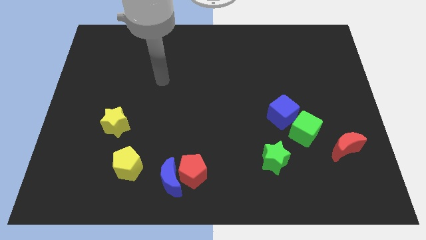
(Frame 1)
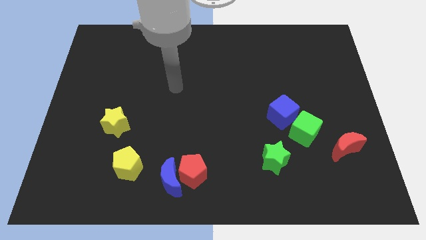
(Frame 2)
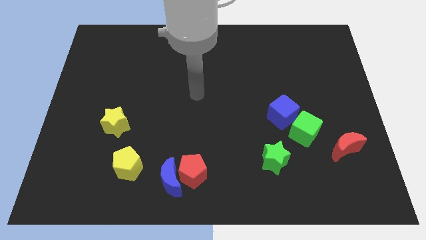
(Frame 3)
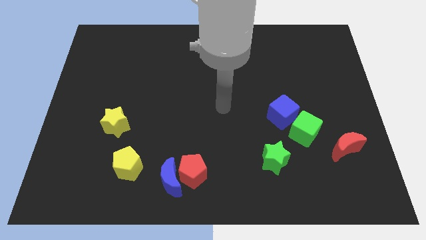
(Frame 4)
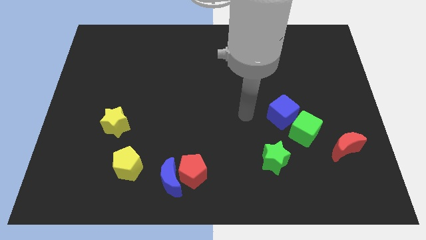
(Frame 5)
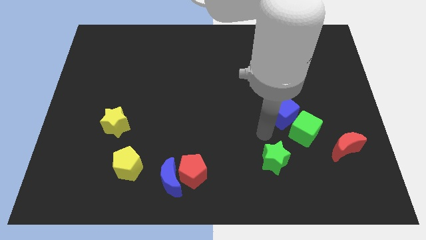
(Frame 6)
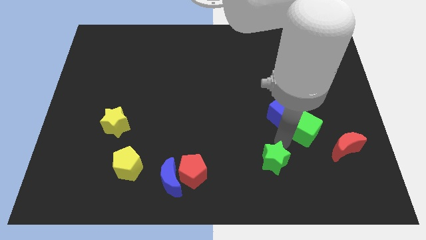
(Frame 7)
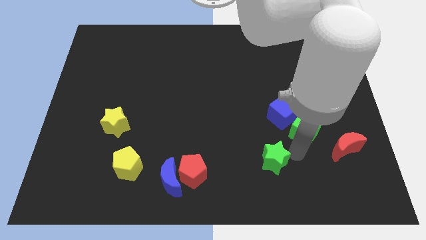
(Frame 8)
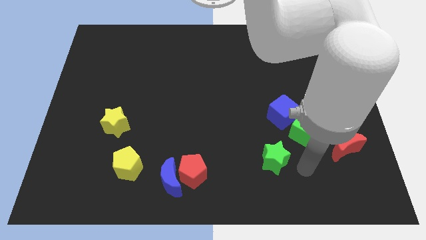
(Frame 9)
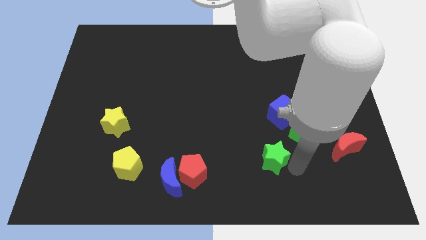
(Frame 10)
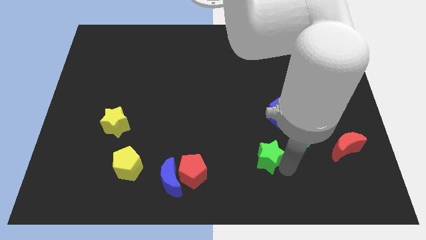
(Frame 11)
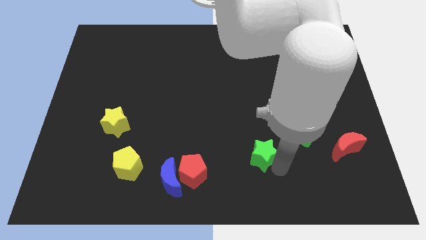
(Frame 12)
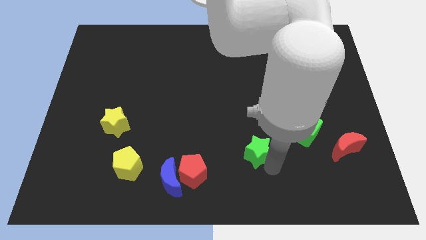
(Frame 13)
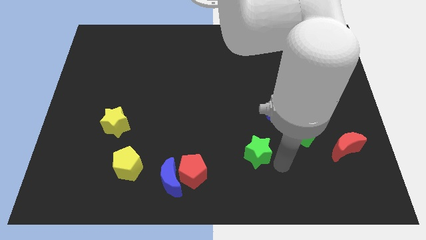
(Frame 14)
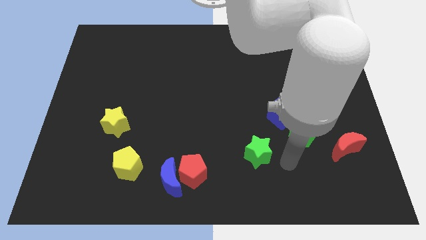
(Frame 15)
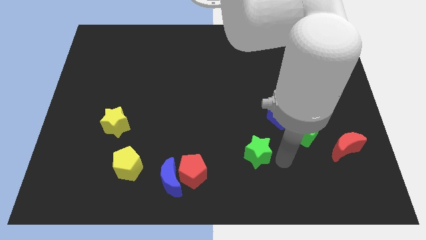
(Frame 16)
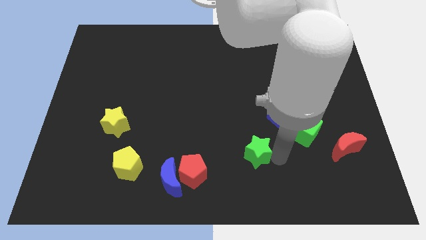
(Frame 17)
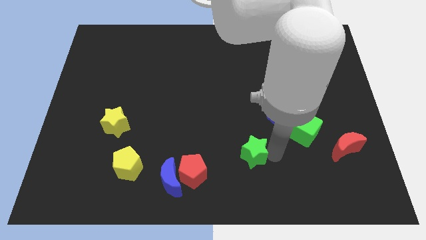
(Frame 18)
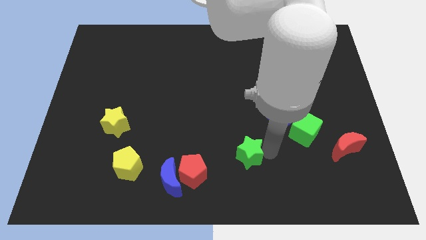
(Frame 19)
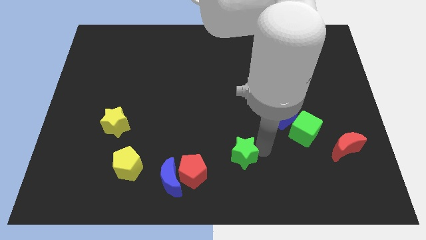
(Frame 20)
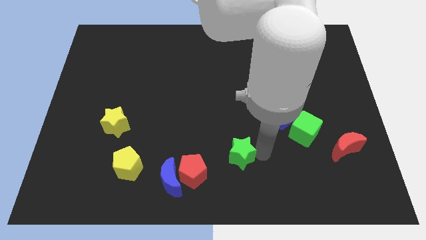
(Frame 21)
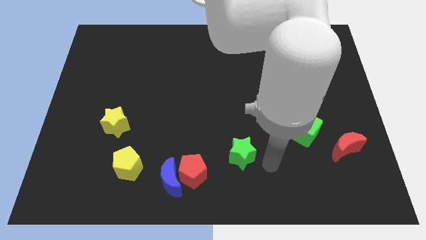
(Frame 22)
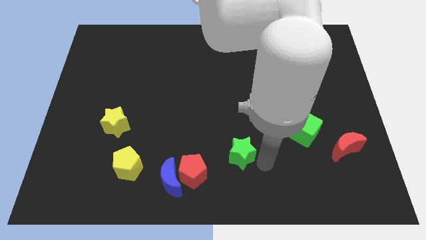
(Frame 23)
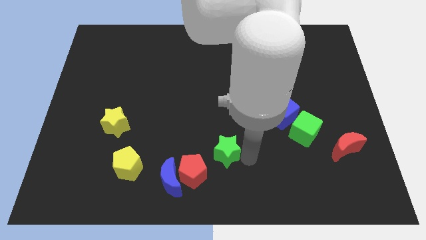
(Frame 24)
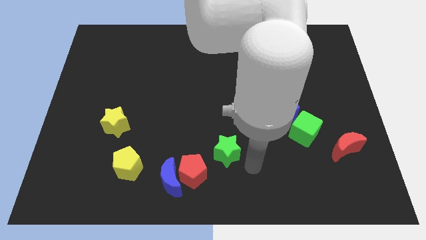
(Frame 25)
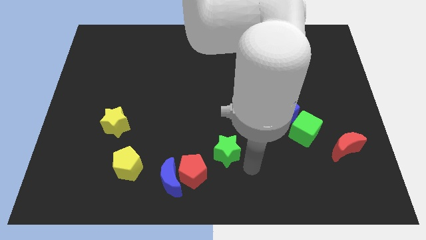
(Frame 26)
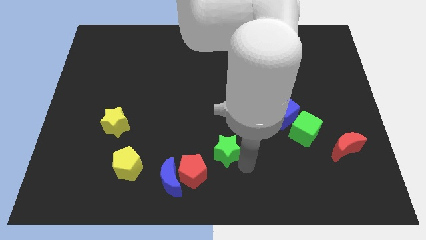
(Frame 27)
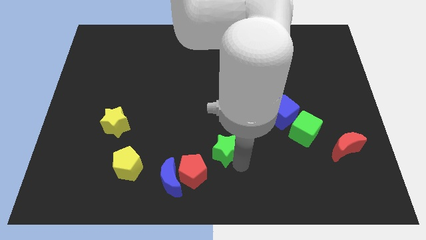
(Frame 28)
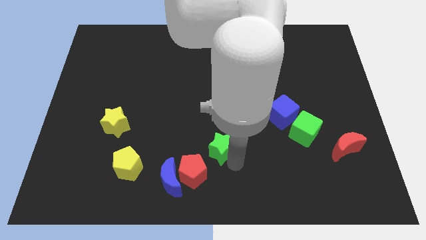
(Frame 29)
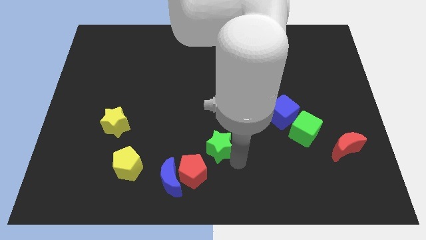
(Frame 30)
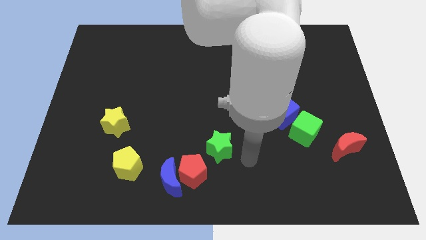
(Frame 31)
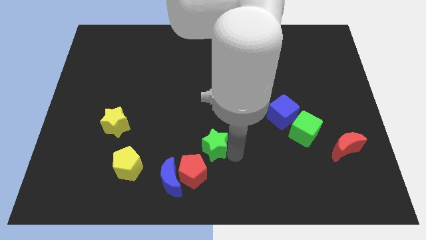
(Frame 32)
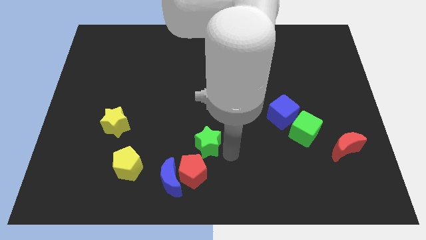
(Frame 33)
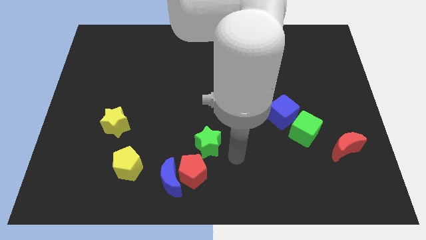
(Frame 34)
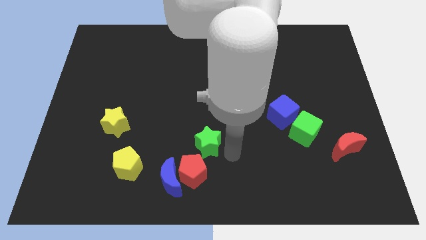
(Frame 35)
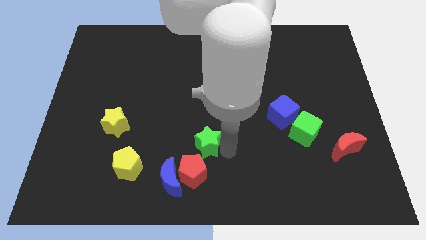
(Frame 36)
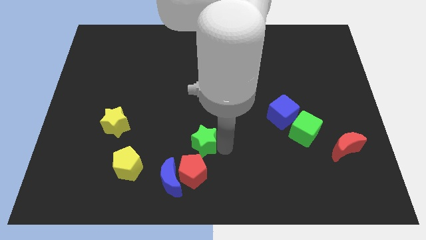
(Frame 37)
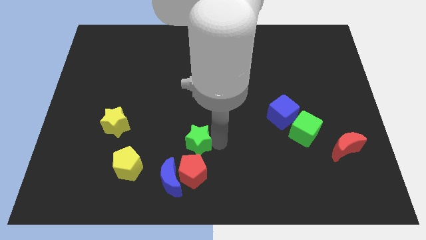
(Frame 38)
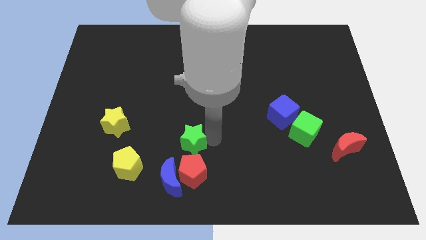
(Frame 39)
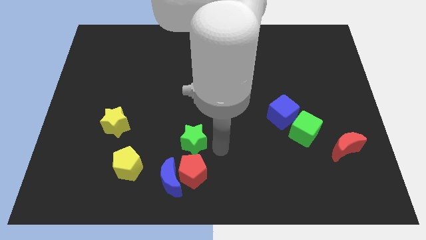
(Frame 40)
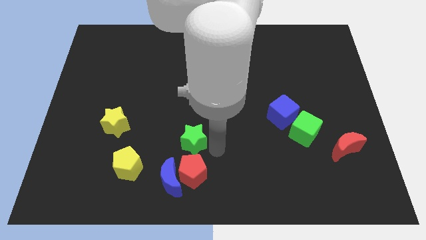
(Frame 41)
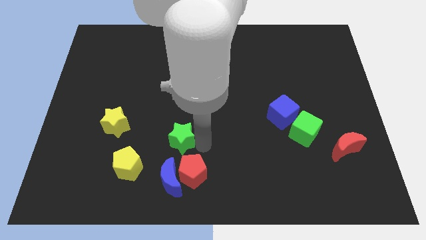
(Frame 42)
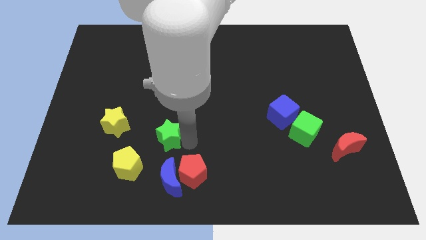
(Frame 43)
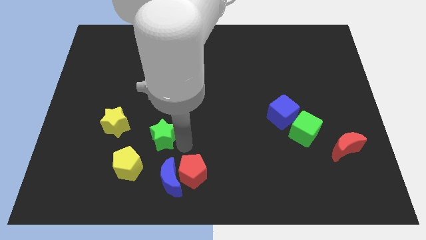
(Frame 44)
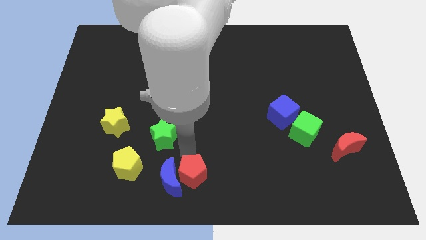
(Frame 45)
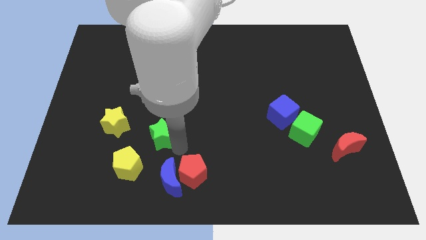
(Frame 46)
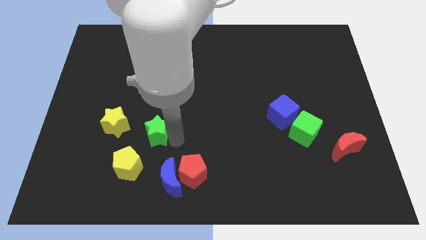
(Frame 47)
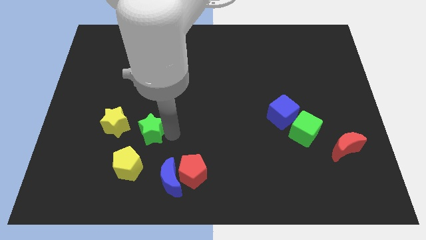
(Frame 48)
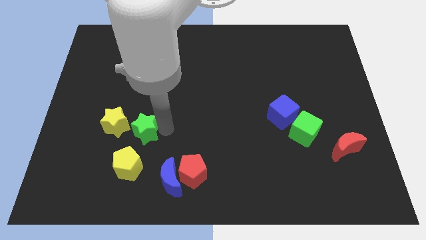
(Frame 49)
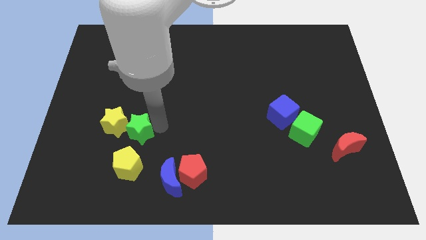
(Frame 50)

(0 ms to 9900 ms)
slide the green star next to the yellow star

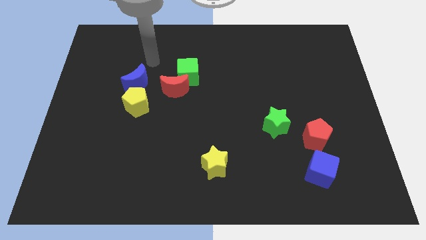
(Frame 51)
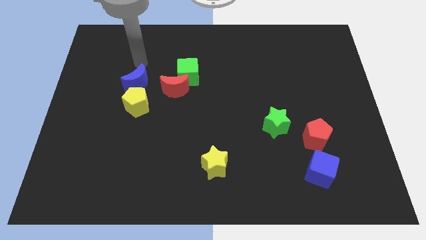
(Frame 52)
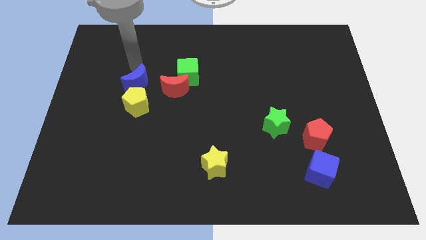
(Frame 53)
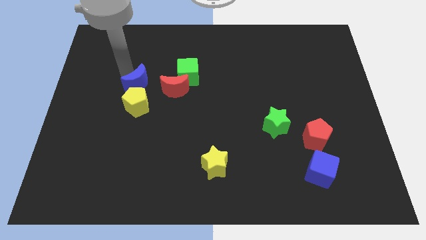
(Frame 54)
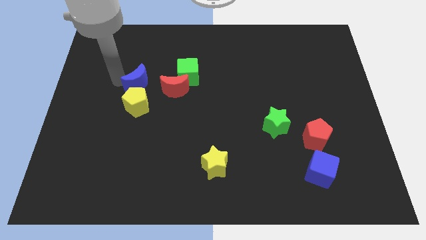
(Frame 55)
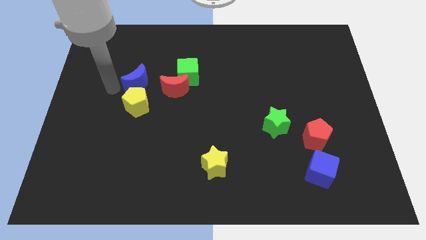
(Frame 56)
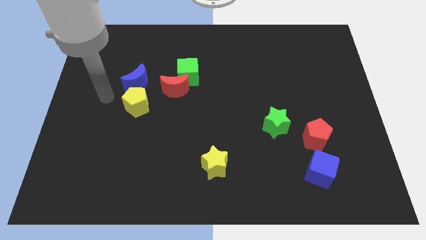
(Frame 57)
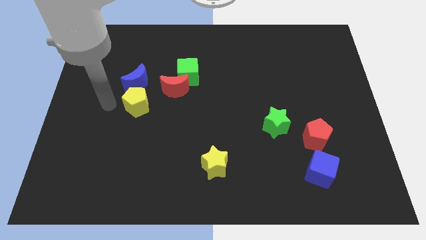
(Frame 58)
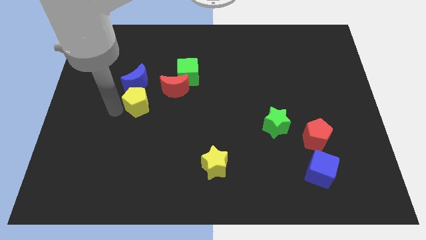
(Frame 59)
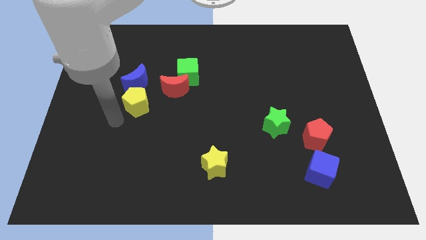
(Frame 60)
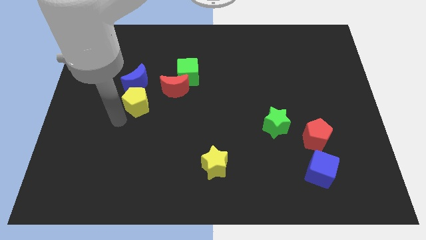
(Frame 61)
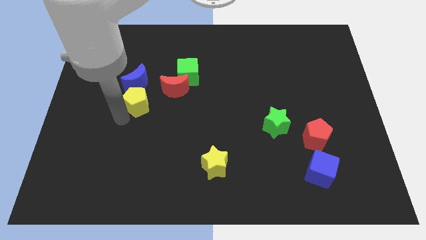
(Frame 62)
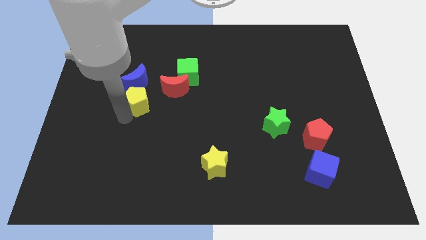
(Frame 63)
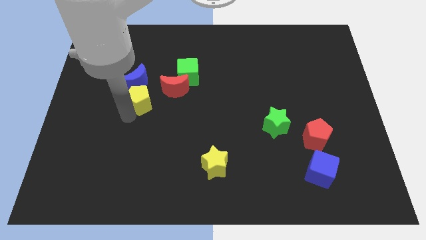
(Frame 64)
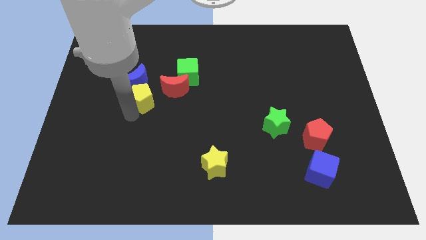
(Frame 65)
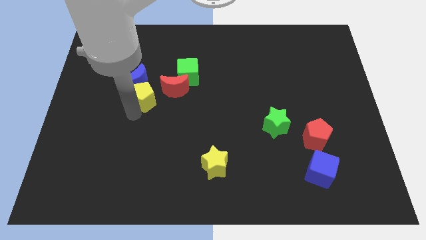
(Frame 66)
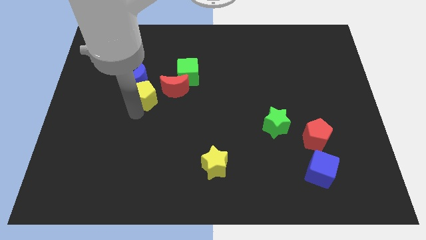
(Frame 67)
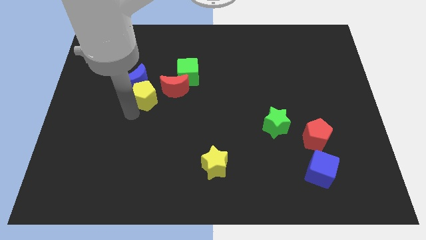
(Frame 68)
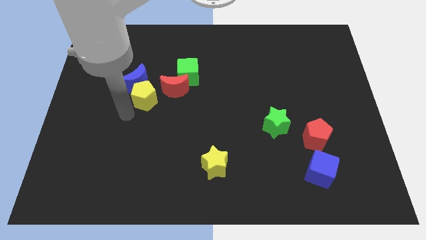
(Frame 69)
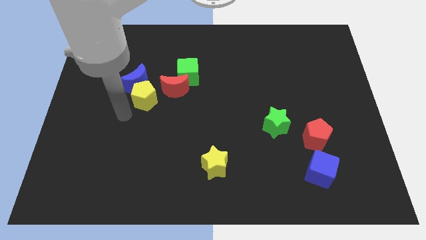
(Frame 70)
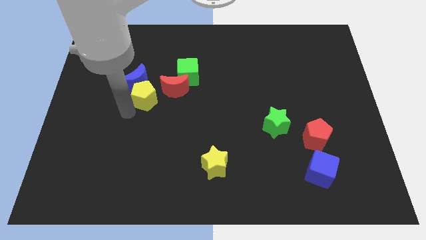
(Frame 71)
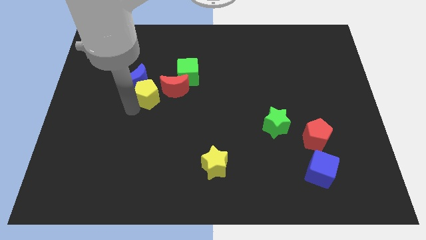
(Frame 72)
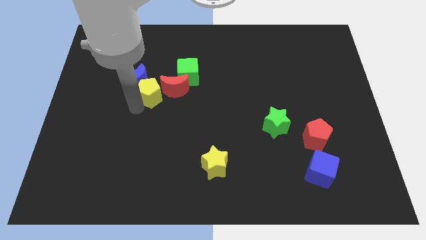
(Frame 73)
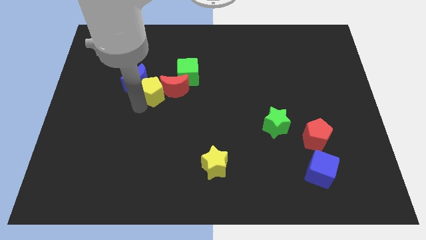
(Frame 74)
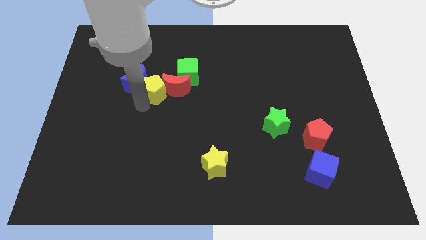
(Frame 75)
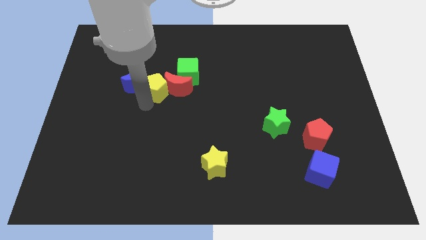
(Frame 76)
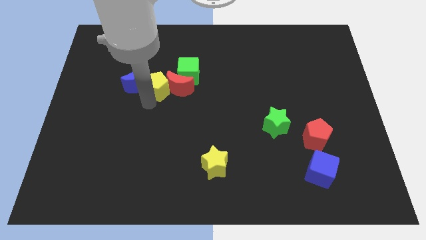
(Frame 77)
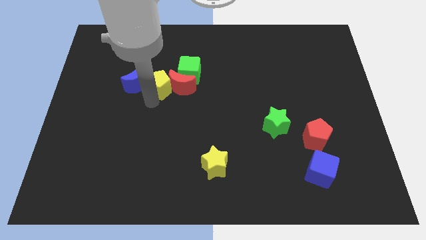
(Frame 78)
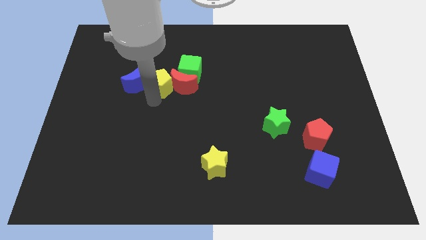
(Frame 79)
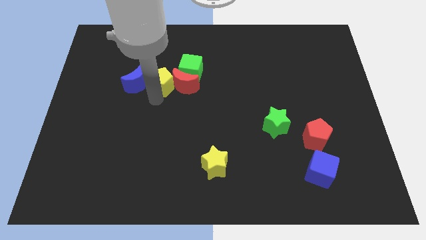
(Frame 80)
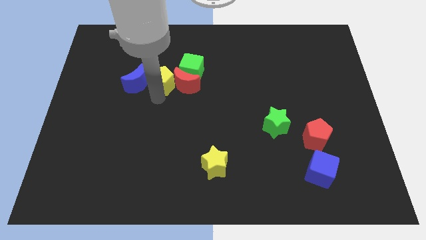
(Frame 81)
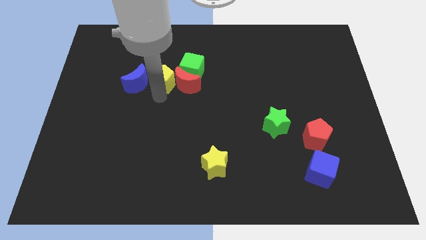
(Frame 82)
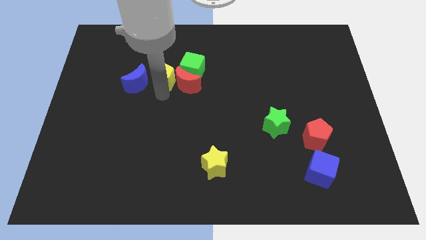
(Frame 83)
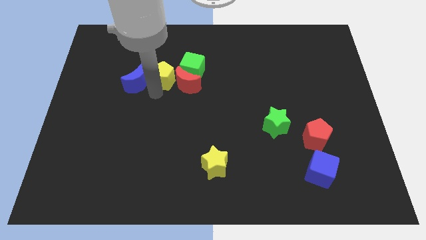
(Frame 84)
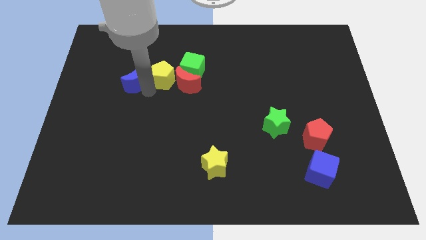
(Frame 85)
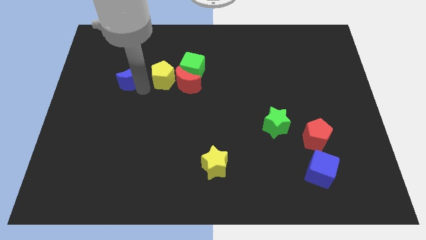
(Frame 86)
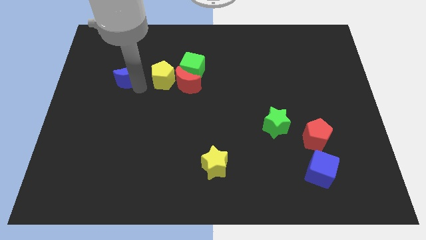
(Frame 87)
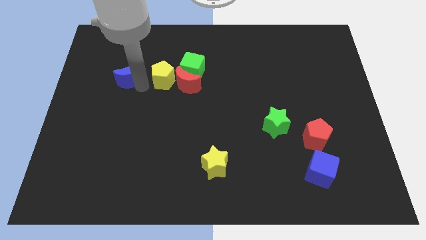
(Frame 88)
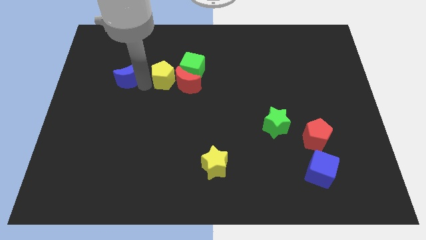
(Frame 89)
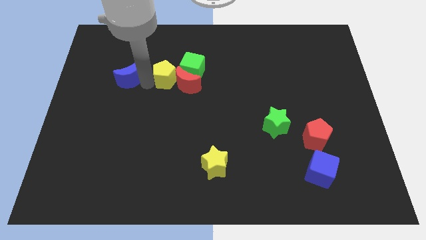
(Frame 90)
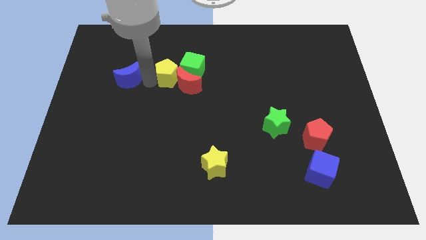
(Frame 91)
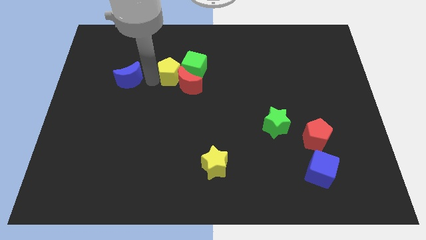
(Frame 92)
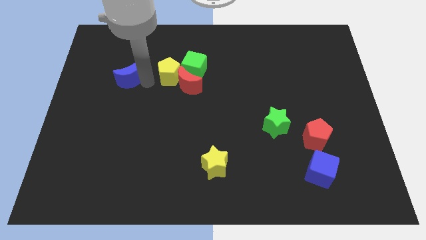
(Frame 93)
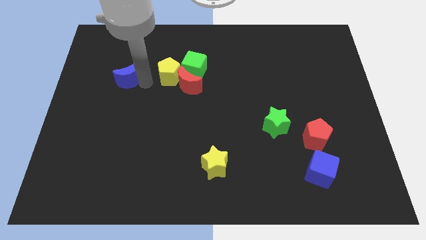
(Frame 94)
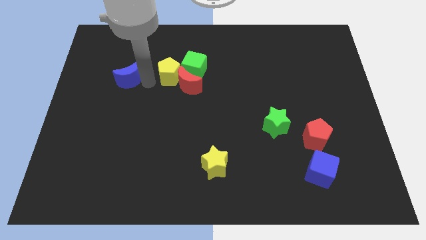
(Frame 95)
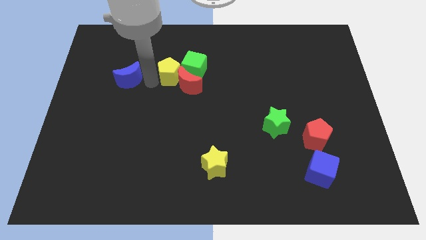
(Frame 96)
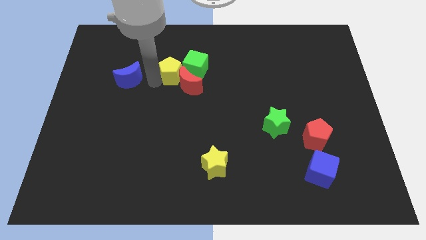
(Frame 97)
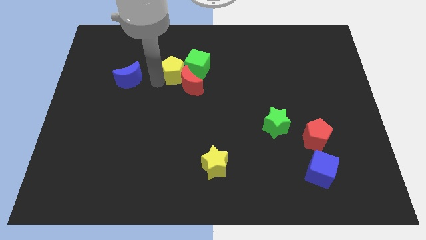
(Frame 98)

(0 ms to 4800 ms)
put the yellow pentagon next to the green cube
